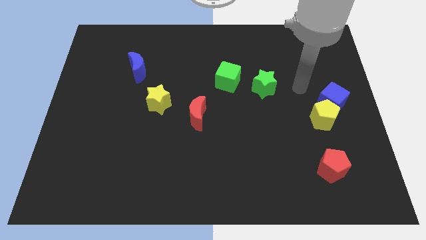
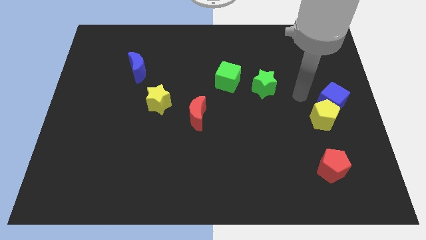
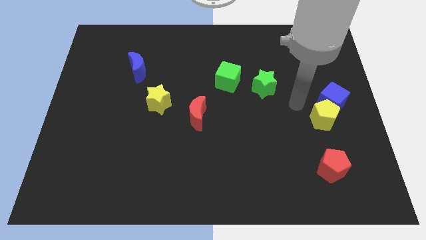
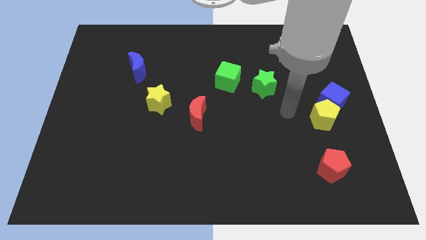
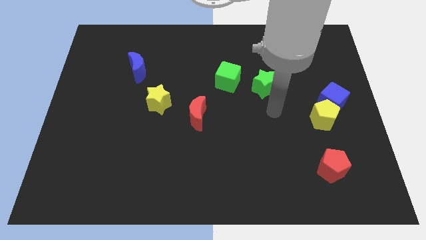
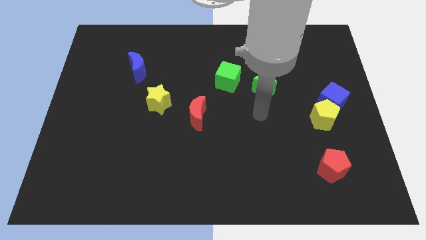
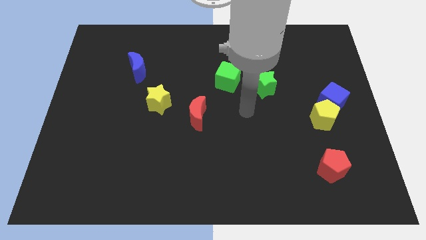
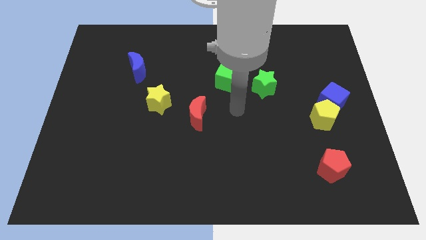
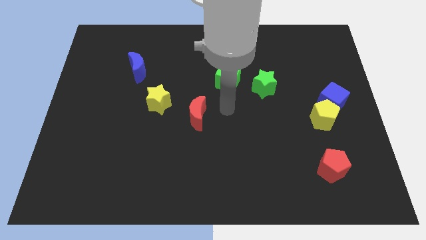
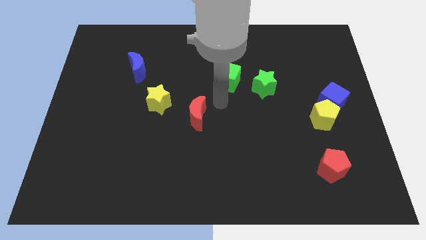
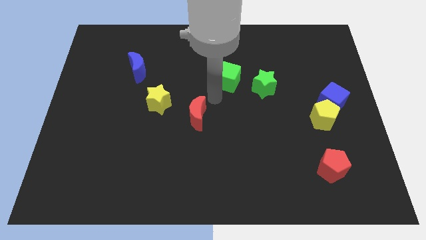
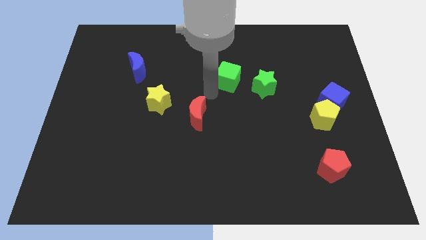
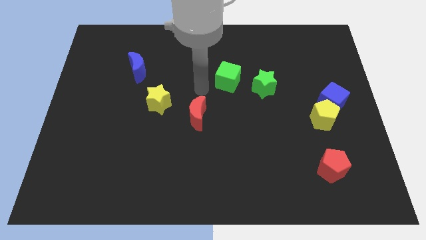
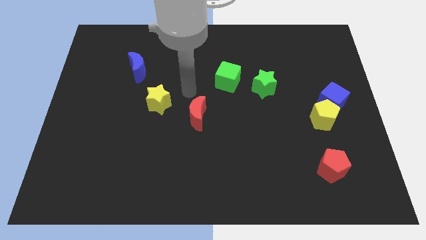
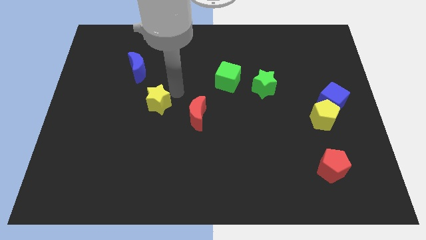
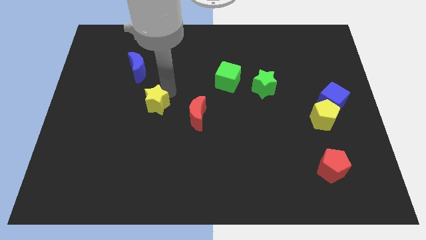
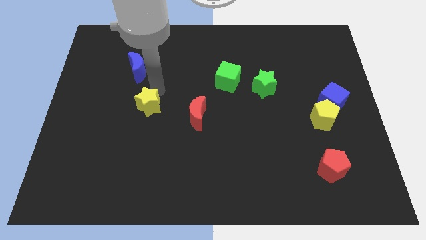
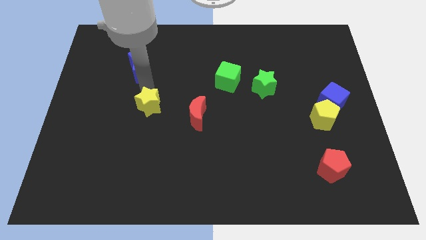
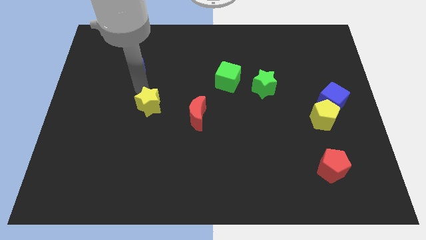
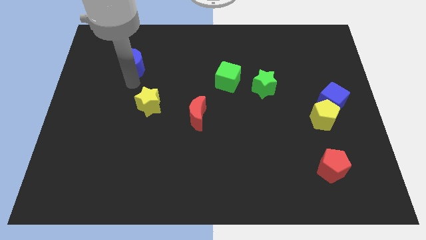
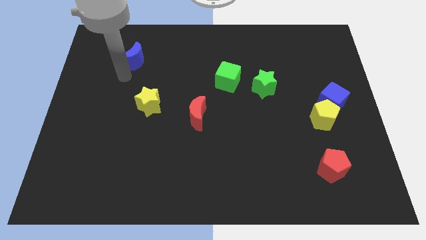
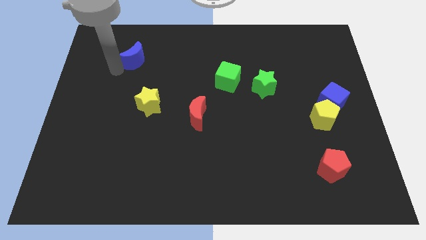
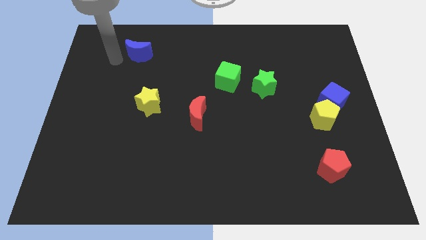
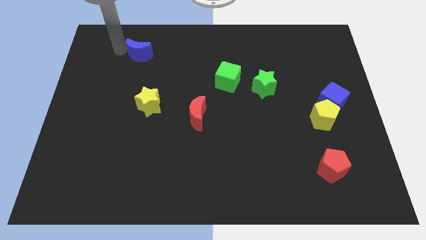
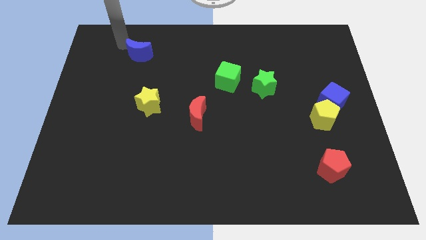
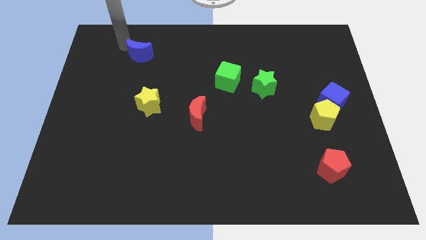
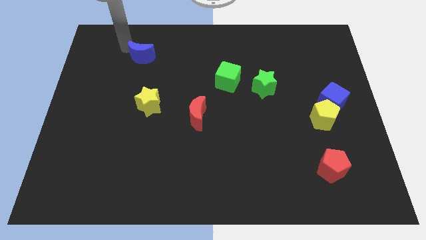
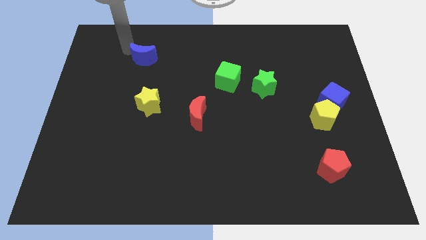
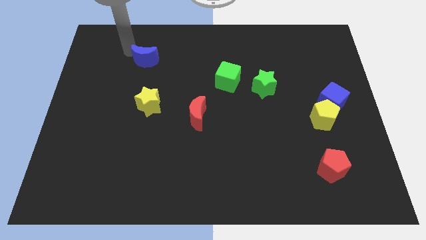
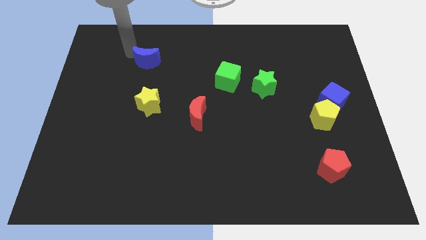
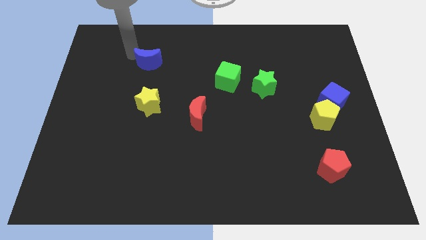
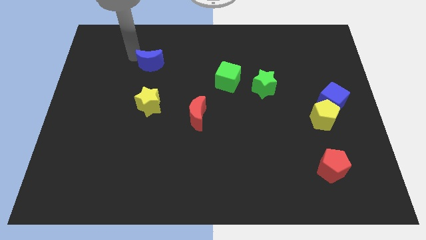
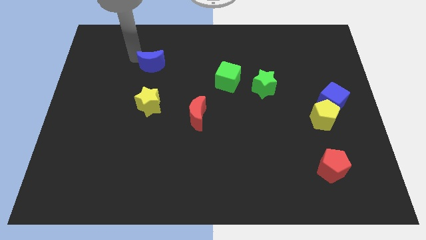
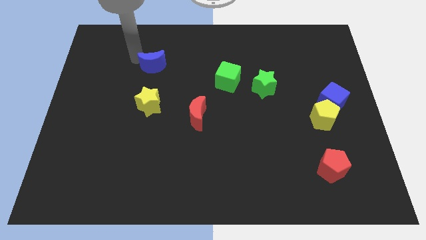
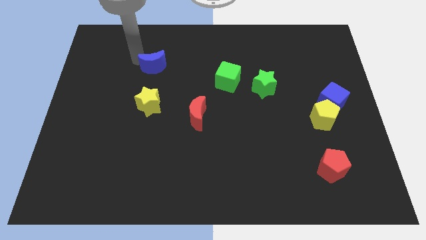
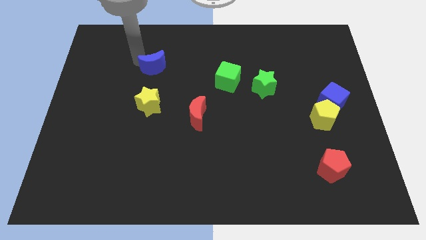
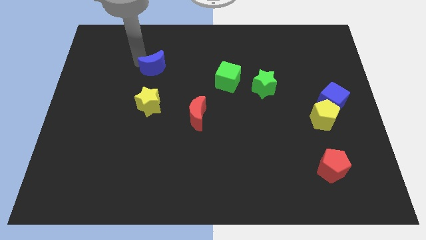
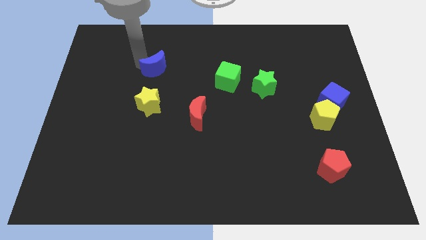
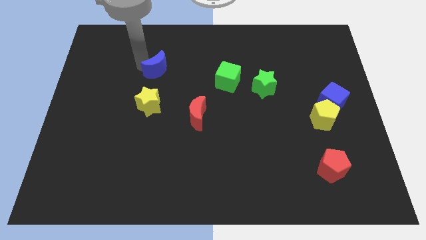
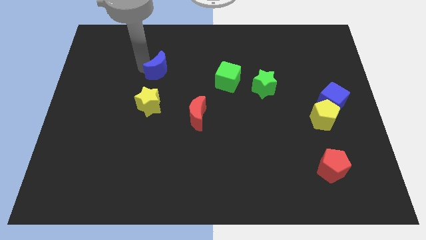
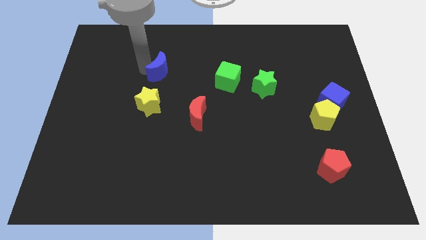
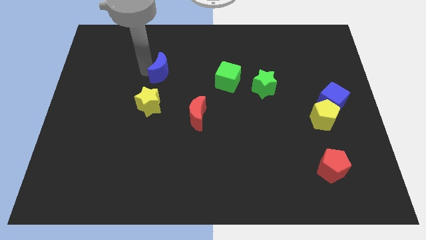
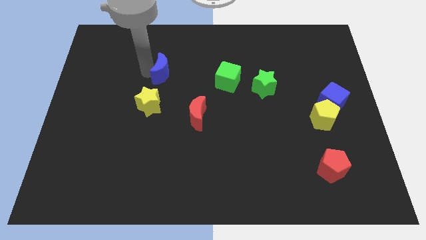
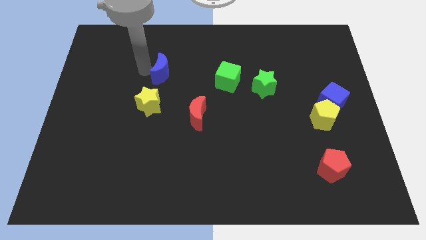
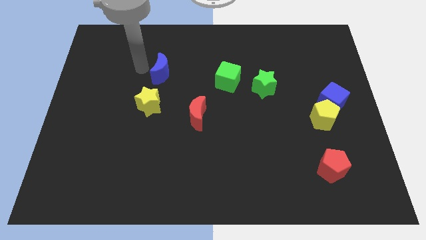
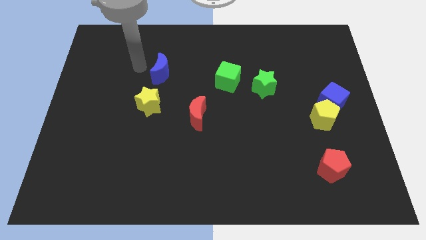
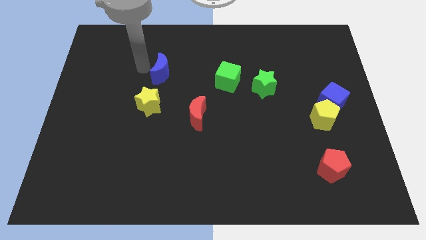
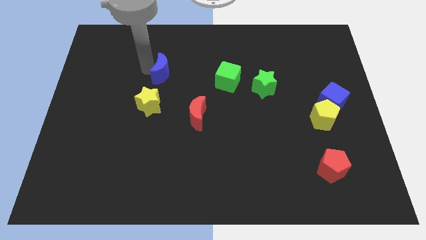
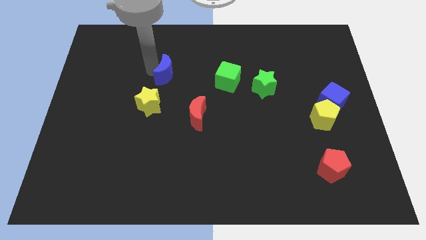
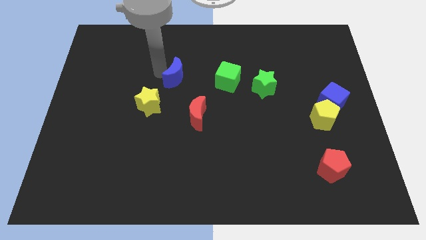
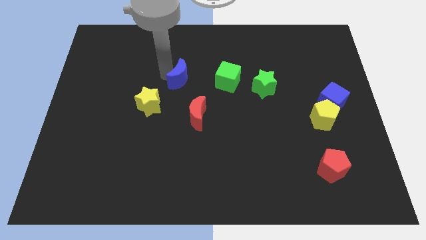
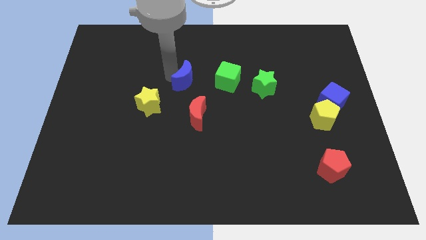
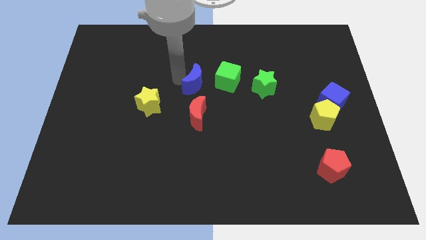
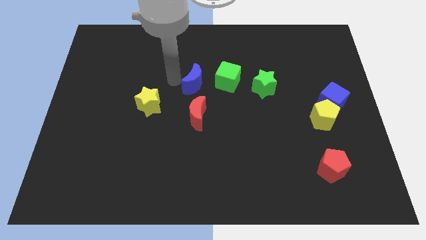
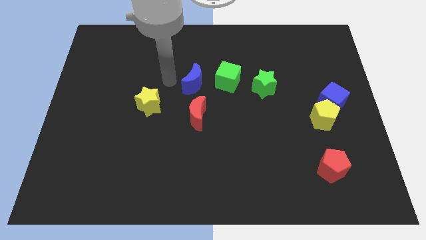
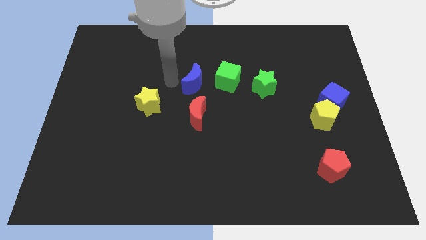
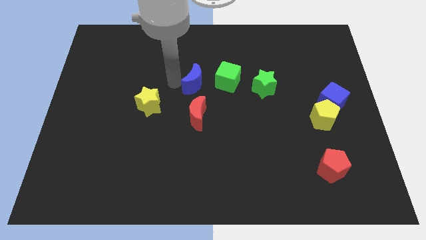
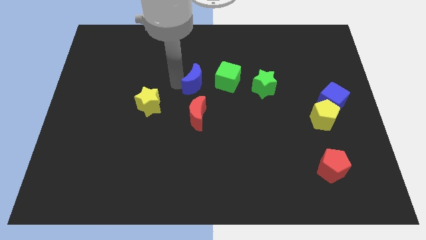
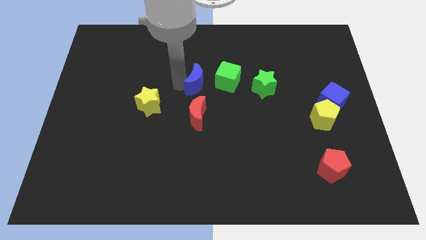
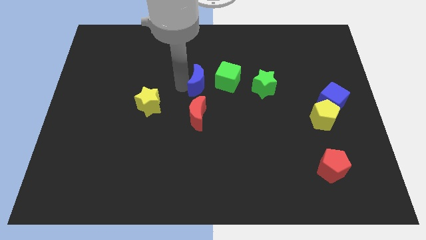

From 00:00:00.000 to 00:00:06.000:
slide the blue moon left of the green star
